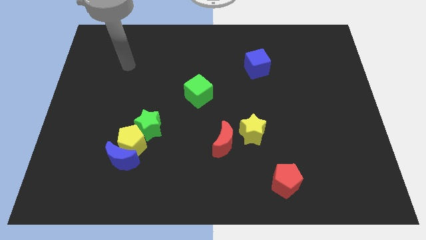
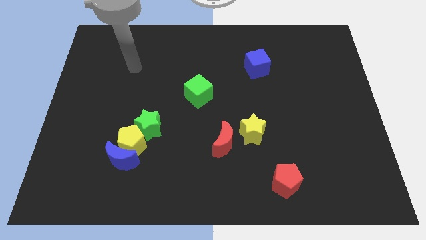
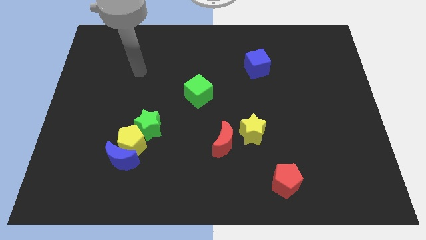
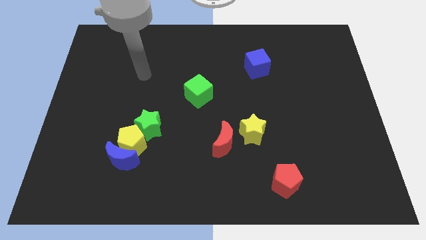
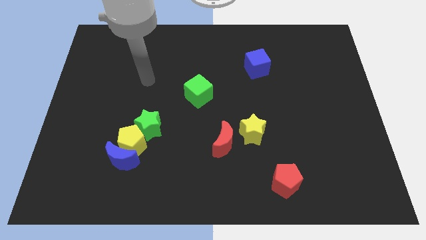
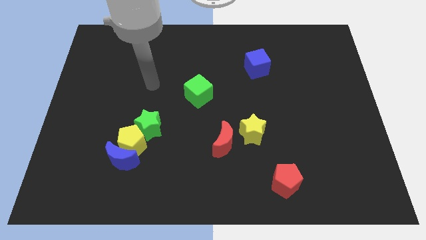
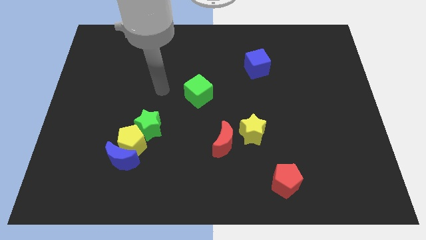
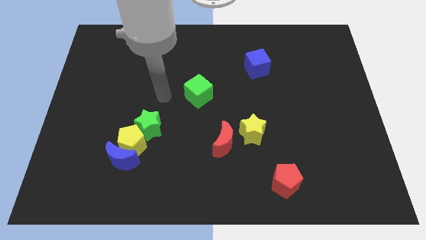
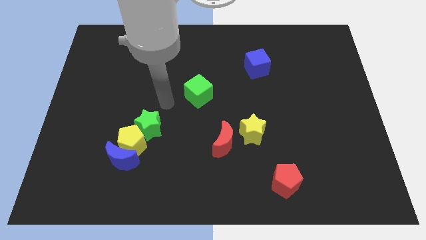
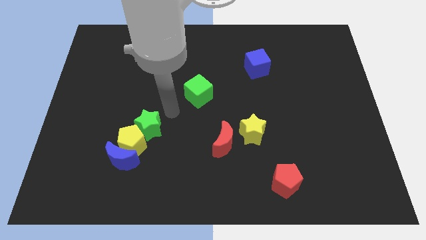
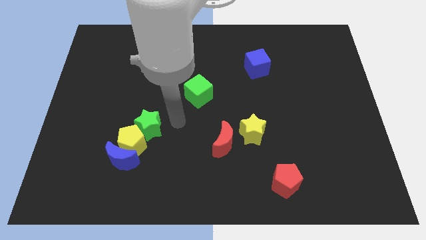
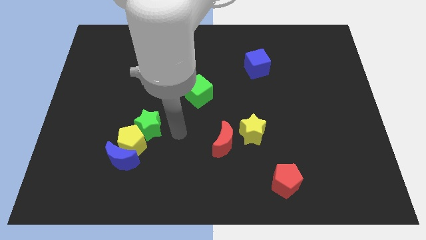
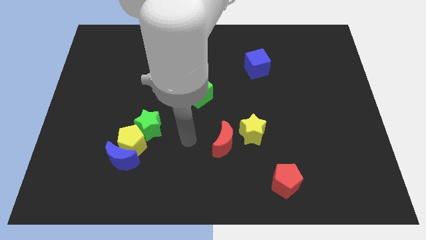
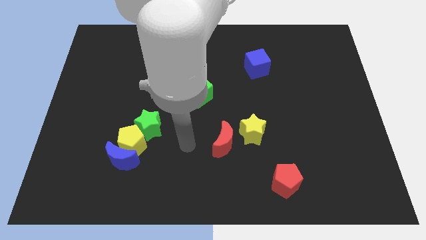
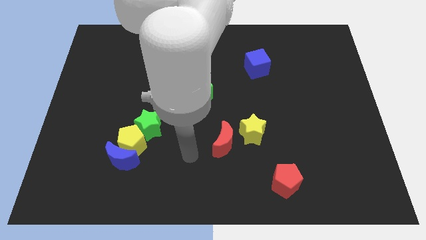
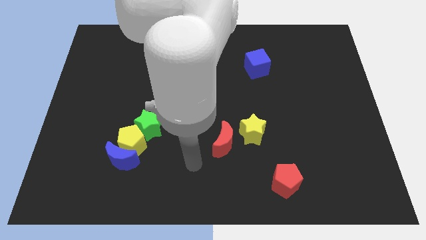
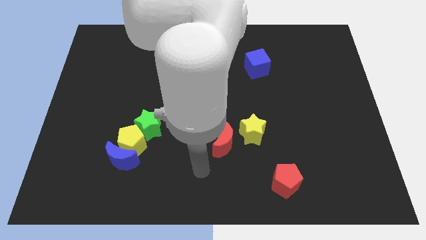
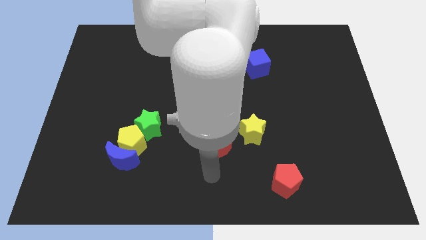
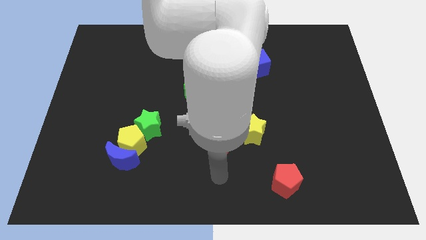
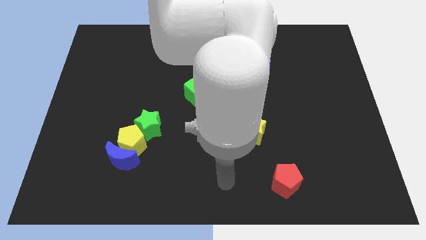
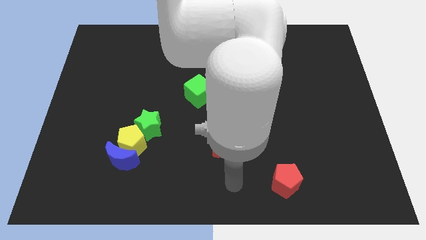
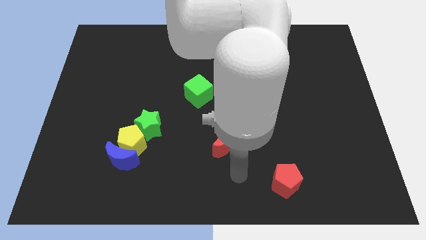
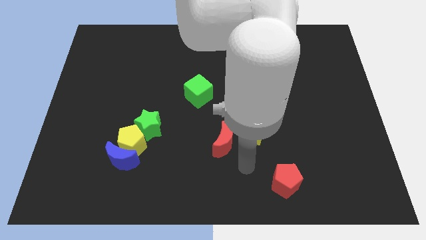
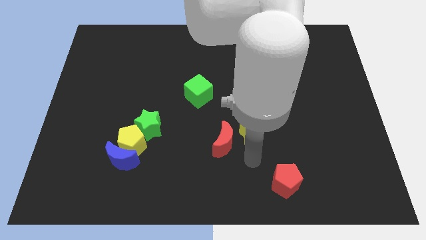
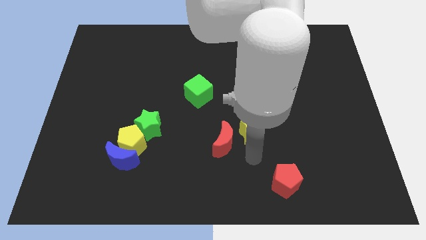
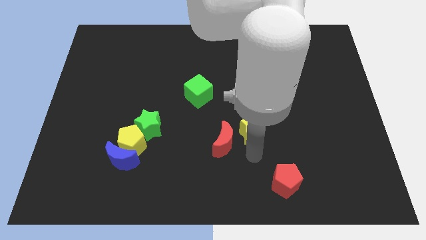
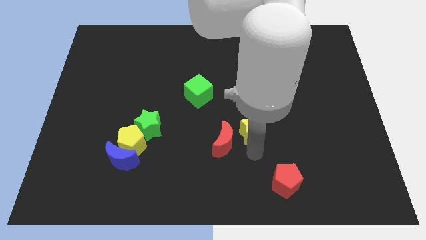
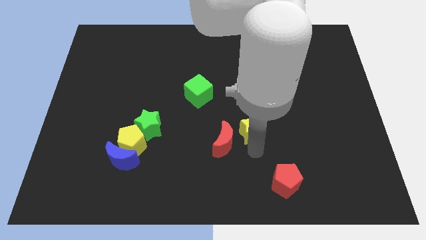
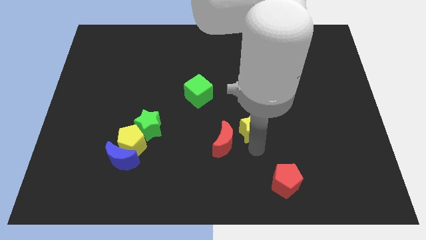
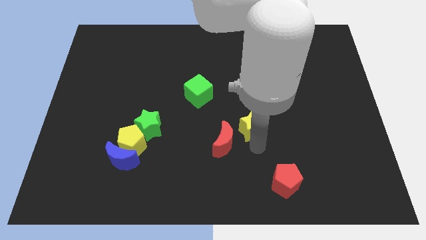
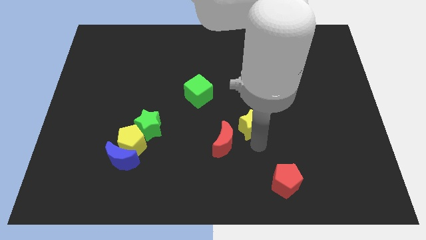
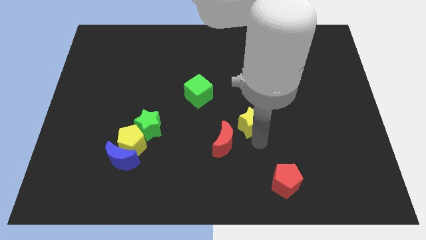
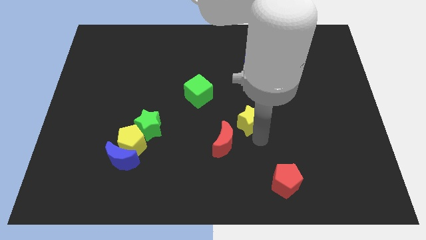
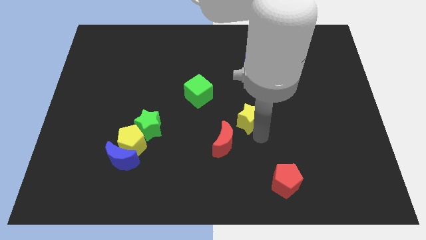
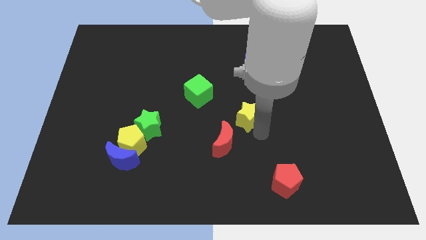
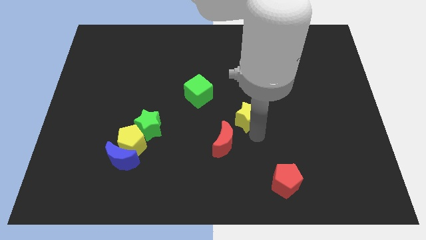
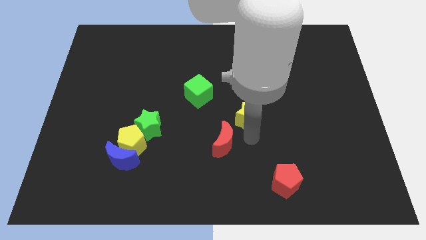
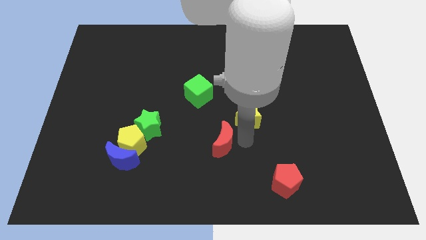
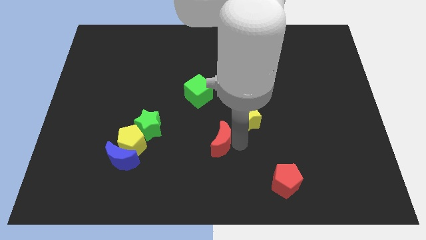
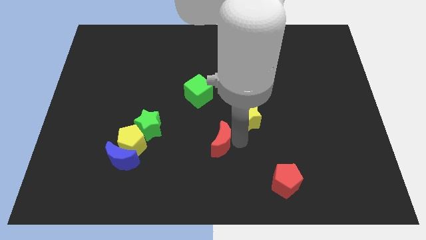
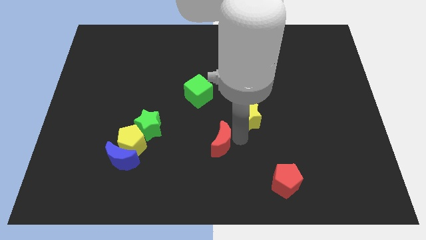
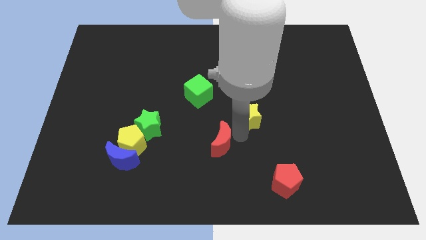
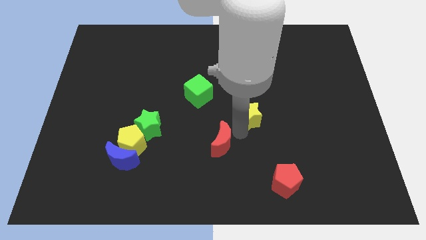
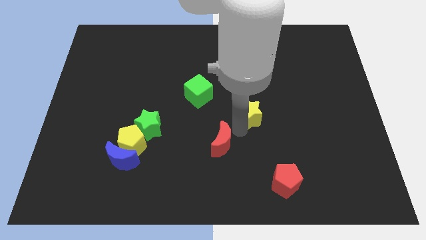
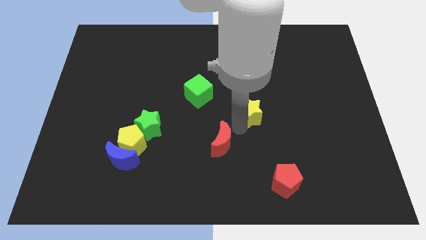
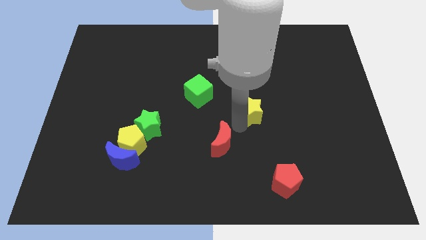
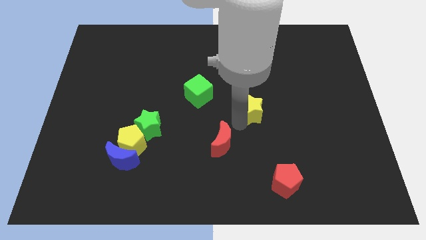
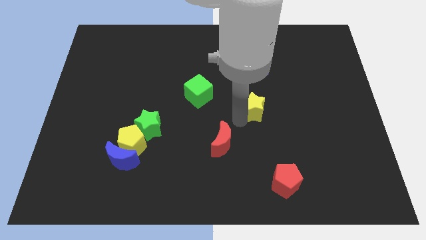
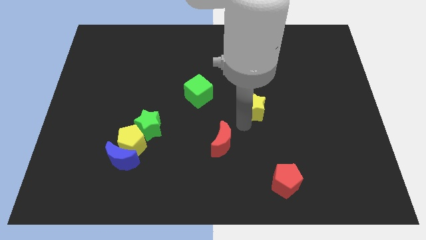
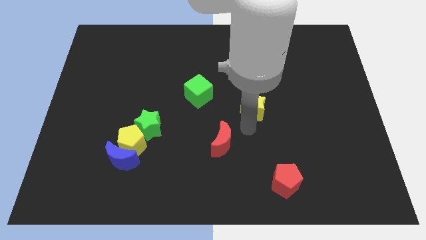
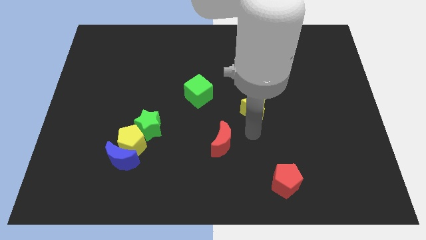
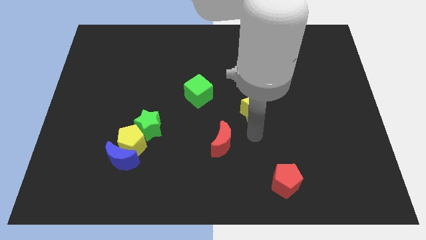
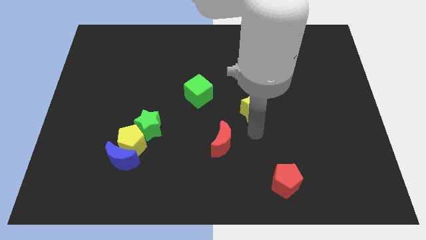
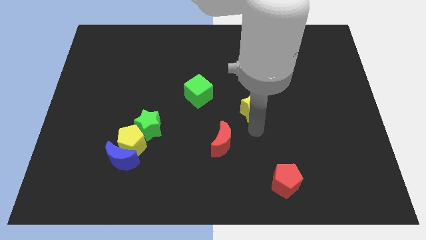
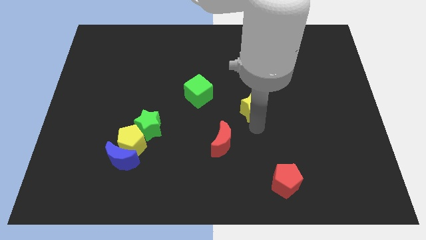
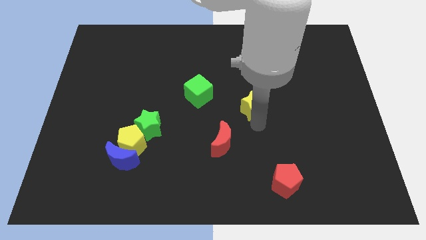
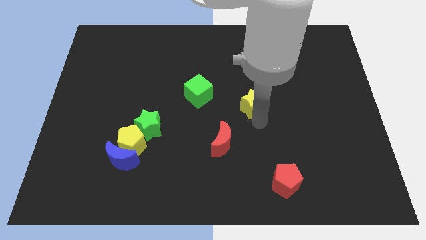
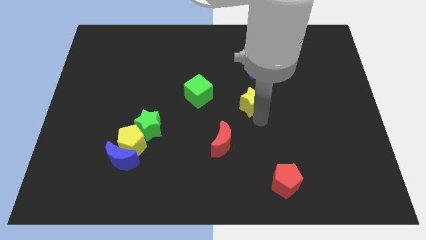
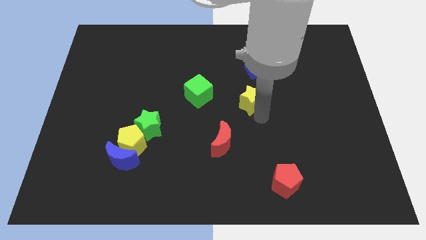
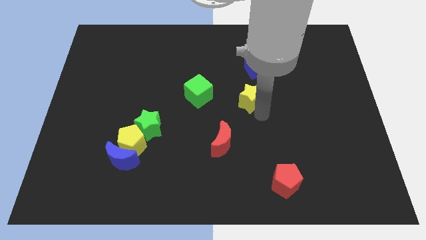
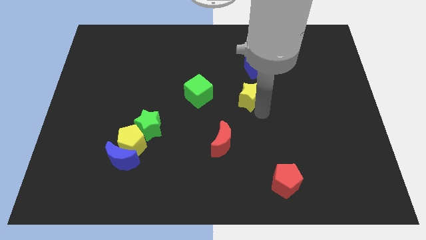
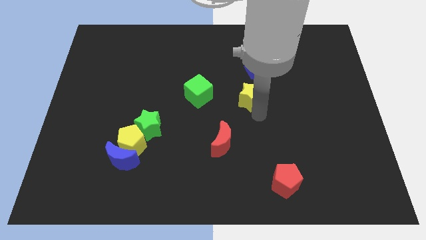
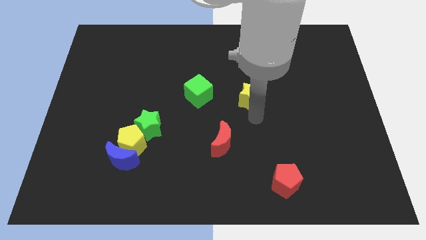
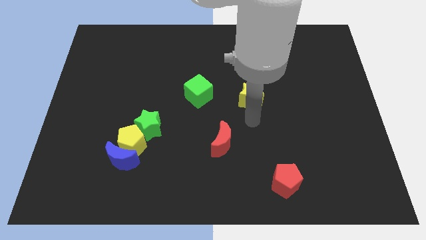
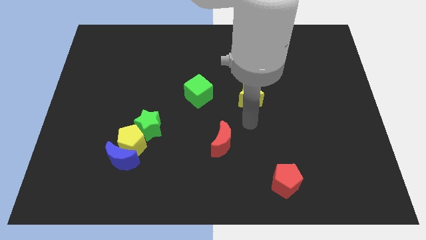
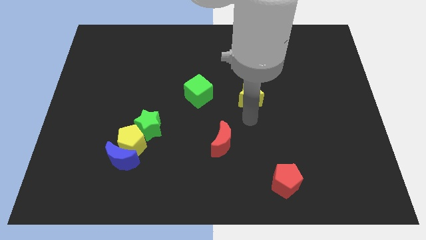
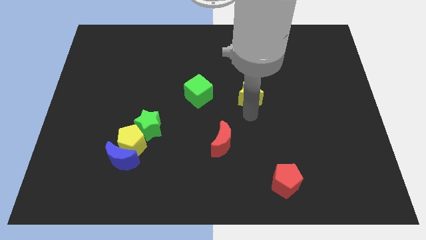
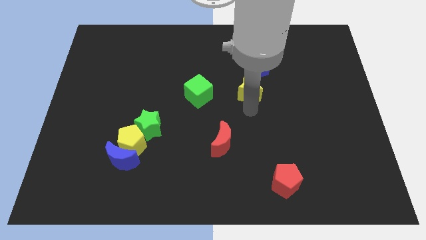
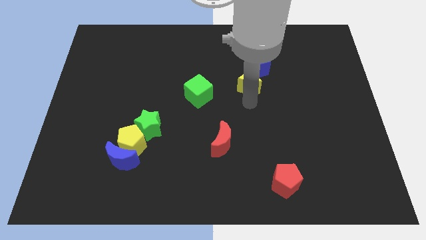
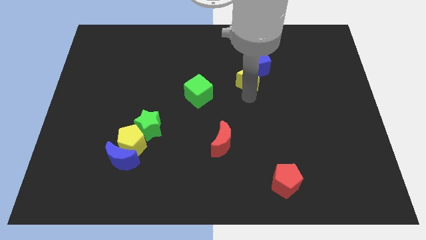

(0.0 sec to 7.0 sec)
push the yellow star to the blue cube
